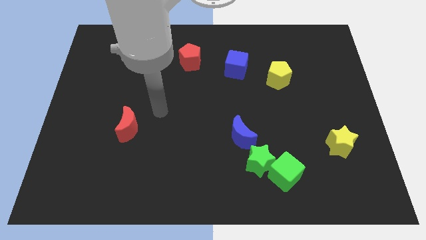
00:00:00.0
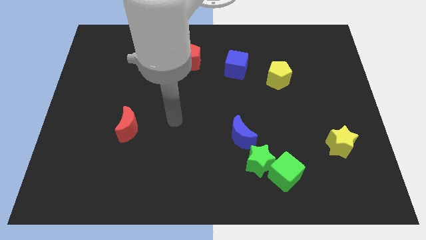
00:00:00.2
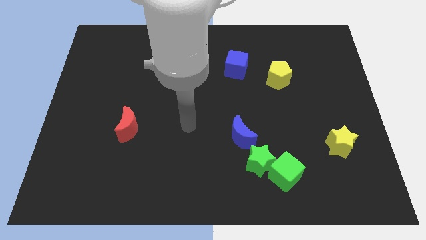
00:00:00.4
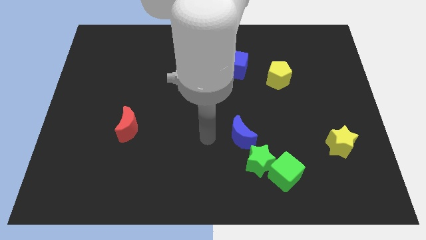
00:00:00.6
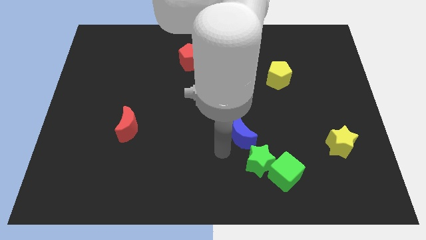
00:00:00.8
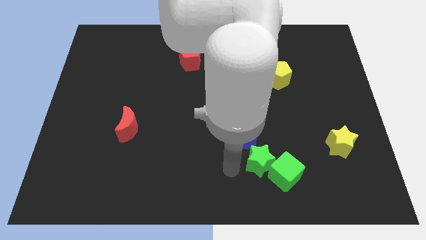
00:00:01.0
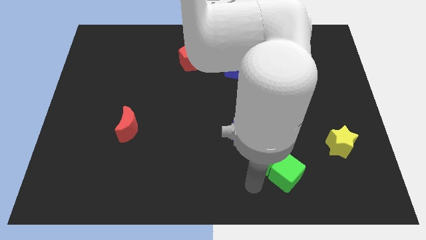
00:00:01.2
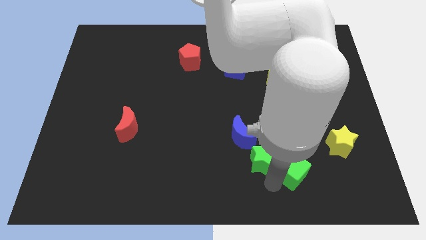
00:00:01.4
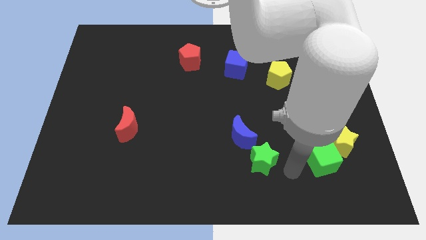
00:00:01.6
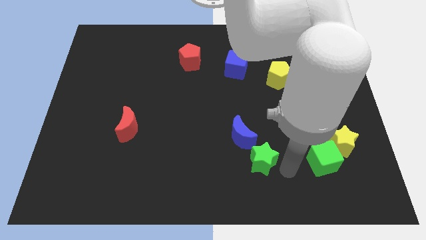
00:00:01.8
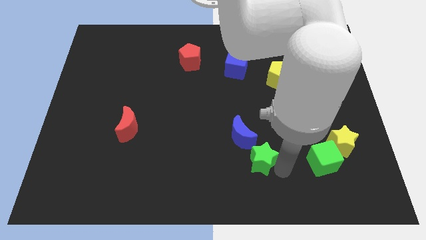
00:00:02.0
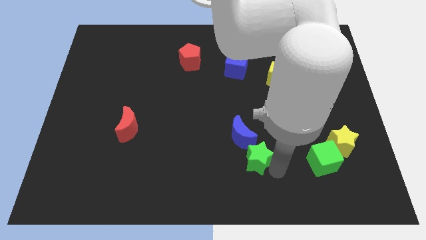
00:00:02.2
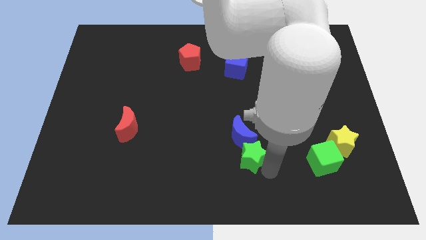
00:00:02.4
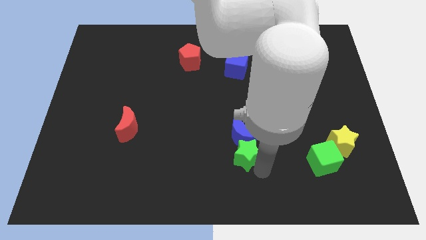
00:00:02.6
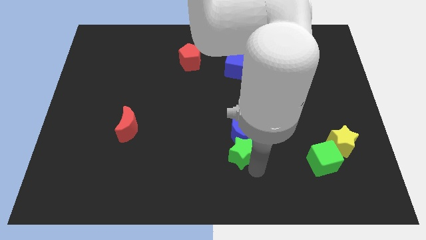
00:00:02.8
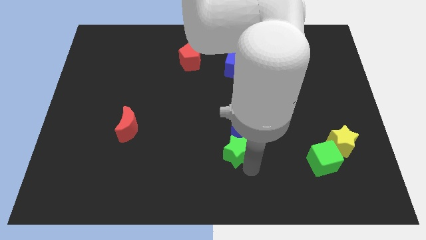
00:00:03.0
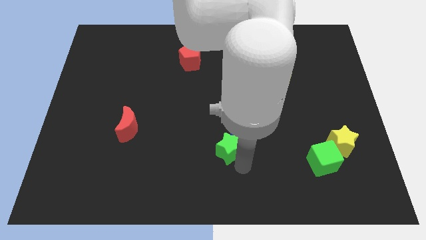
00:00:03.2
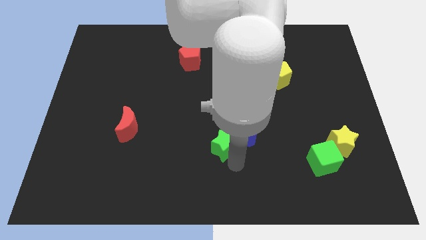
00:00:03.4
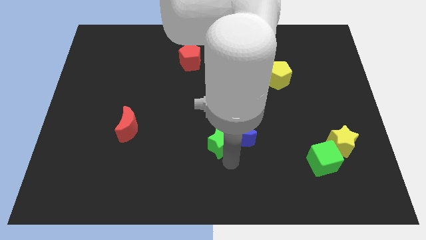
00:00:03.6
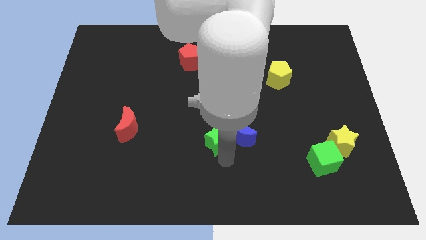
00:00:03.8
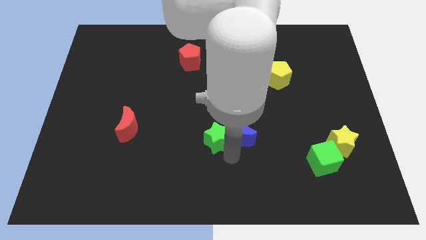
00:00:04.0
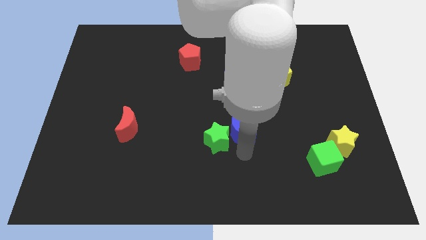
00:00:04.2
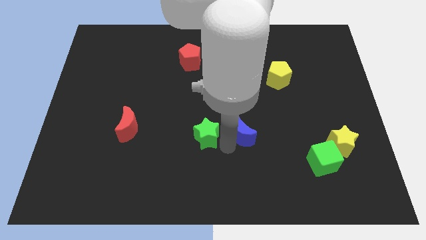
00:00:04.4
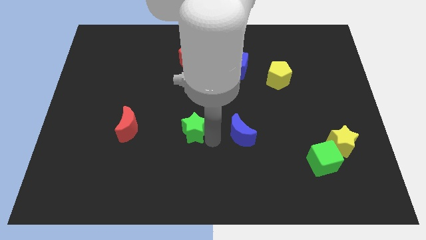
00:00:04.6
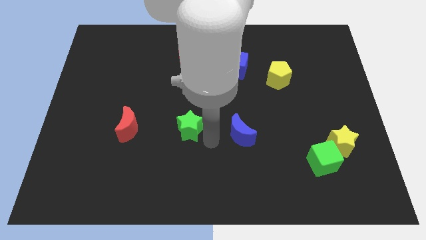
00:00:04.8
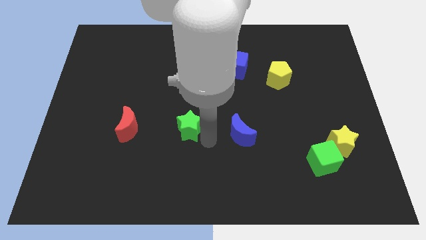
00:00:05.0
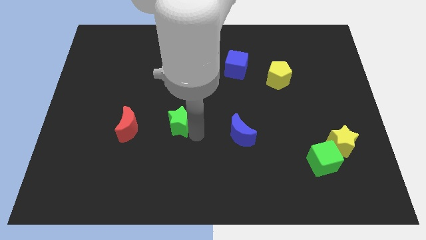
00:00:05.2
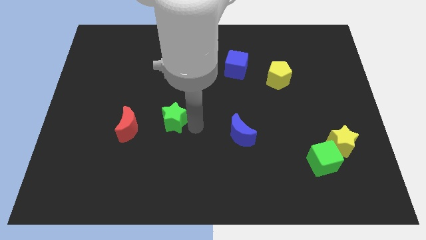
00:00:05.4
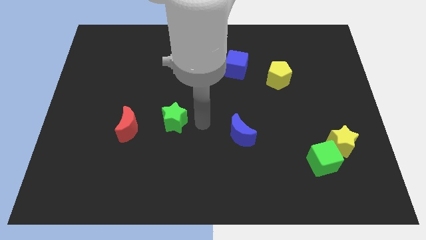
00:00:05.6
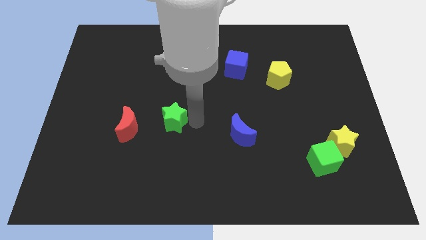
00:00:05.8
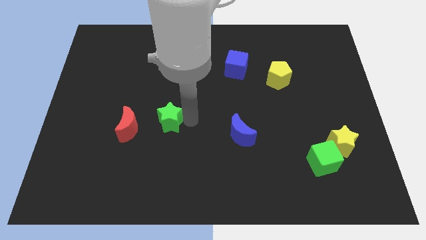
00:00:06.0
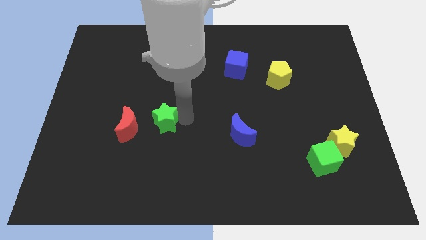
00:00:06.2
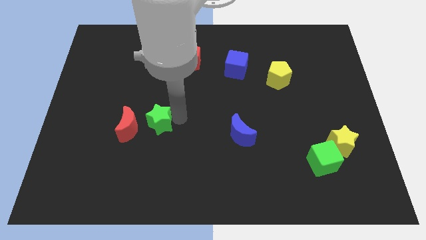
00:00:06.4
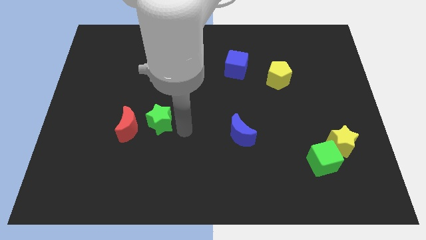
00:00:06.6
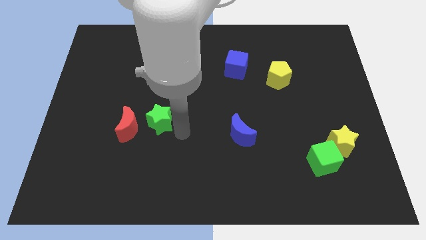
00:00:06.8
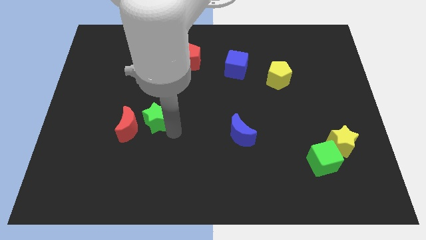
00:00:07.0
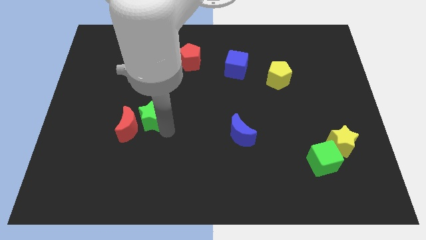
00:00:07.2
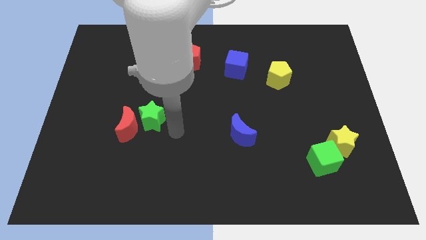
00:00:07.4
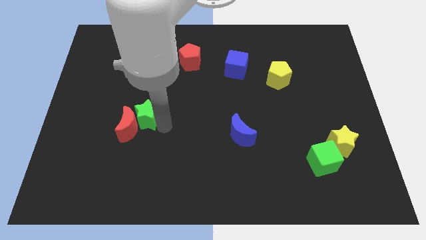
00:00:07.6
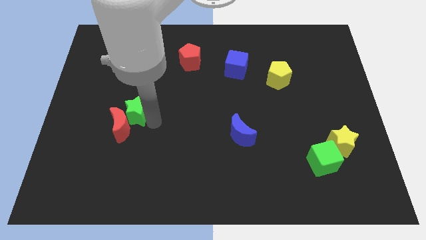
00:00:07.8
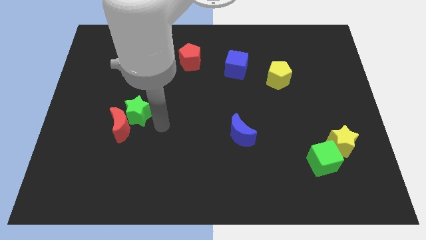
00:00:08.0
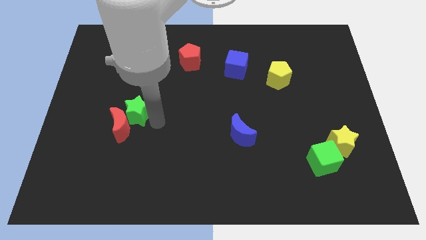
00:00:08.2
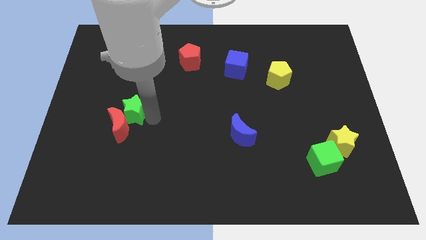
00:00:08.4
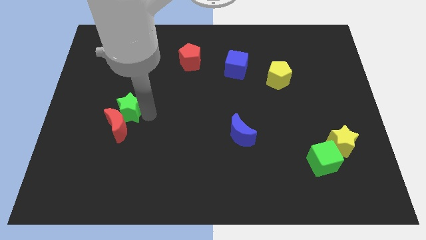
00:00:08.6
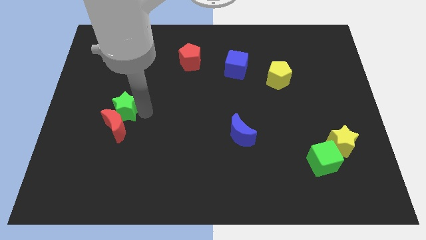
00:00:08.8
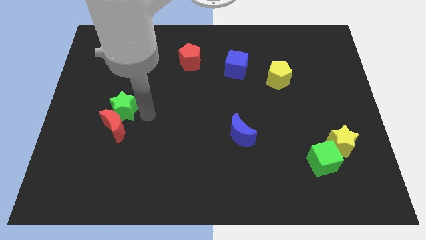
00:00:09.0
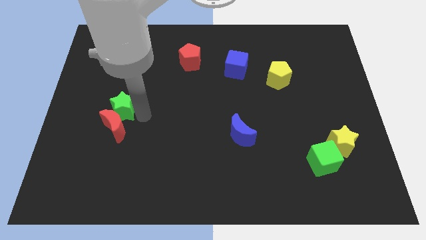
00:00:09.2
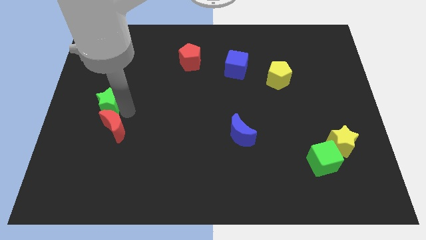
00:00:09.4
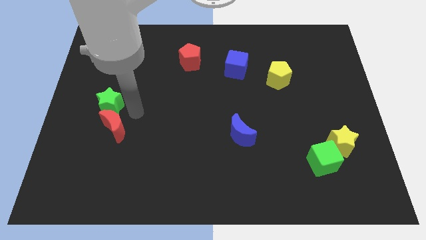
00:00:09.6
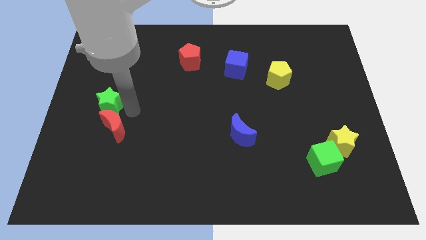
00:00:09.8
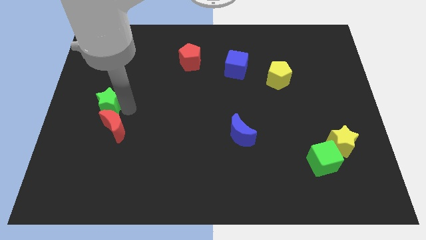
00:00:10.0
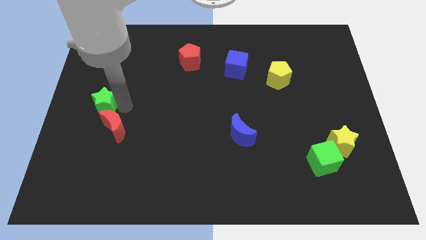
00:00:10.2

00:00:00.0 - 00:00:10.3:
push the green star to the left side
